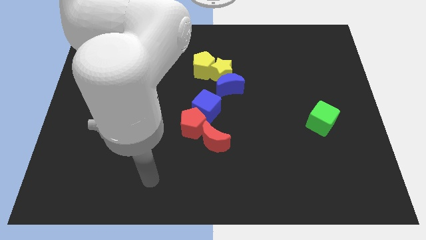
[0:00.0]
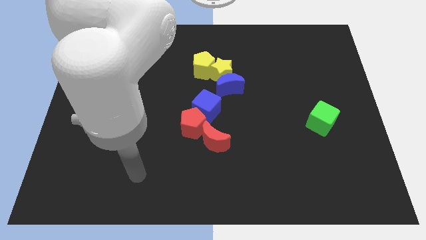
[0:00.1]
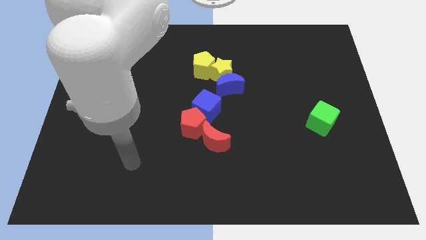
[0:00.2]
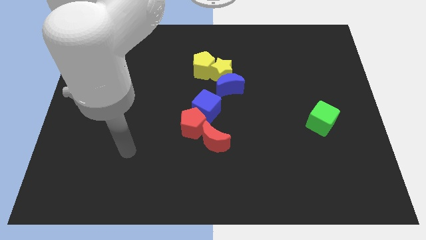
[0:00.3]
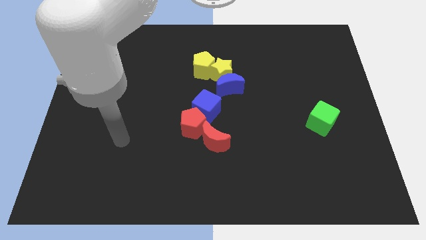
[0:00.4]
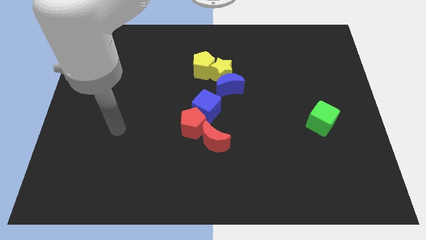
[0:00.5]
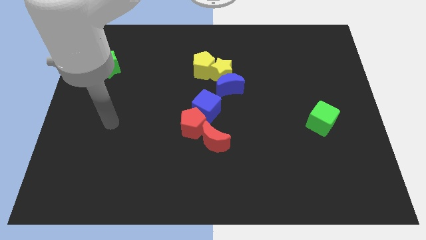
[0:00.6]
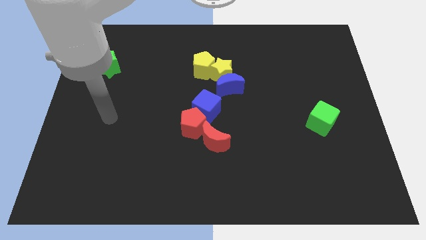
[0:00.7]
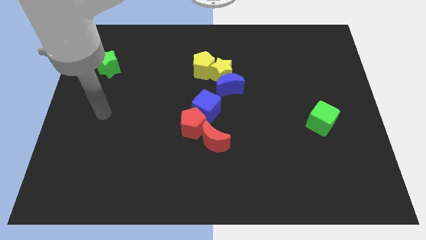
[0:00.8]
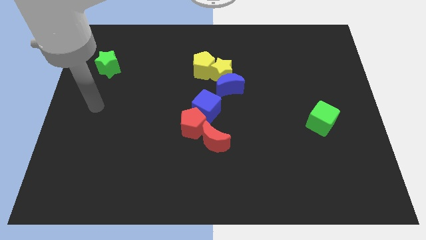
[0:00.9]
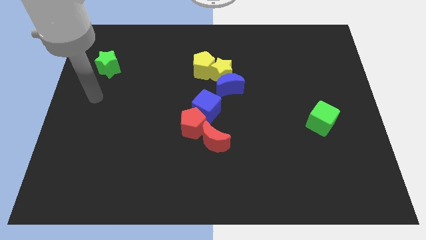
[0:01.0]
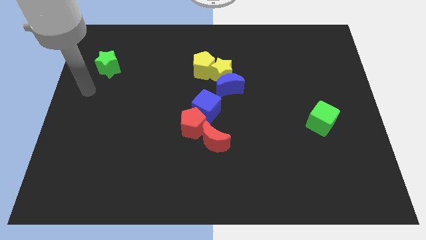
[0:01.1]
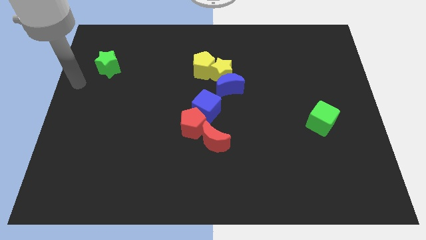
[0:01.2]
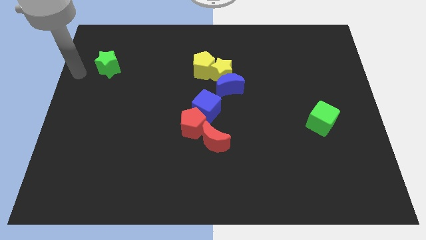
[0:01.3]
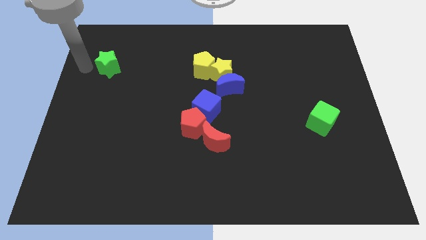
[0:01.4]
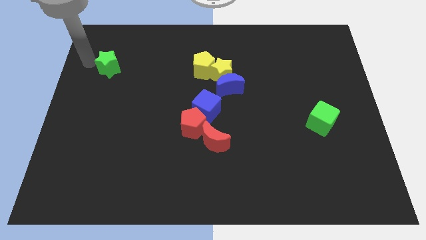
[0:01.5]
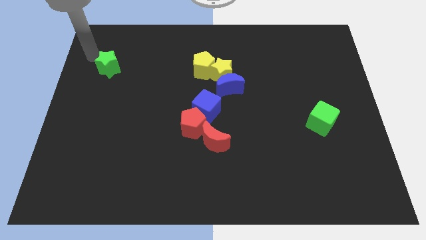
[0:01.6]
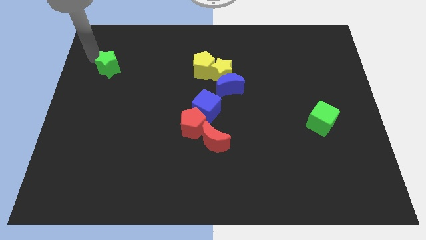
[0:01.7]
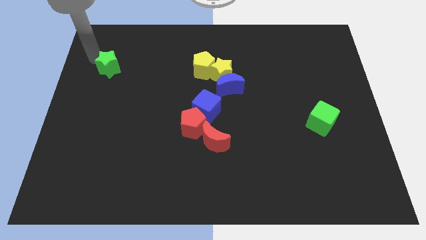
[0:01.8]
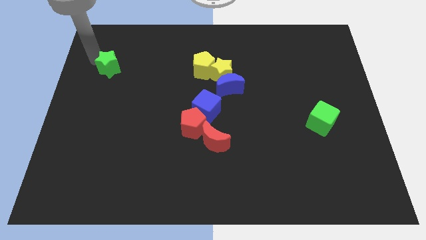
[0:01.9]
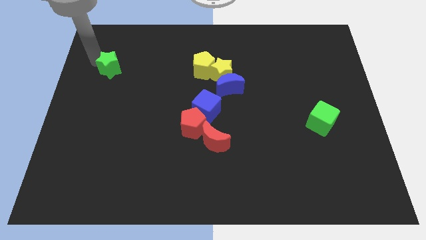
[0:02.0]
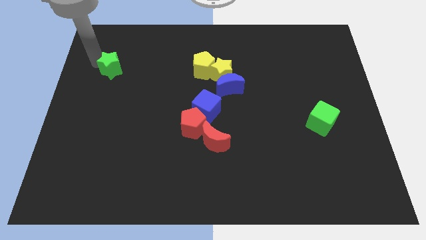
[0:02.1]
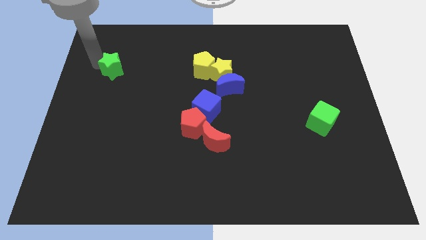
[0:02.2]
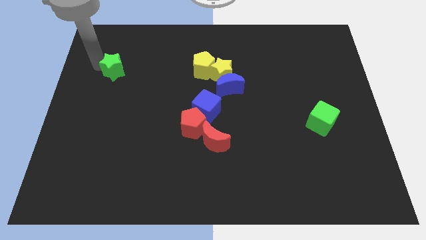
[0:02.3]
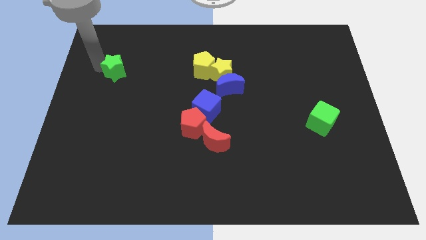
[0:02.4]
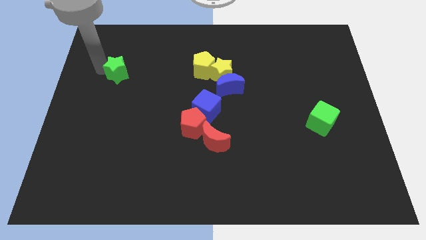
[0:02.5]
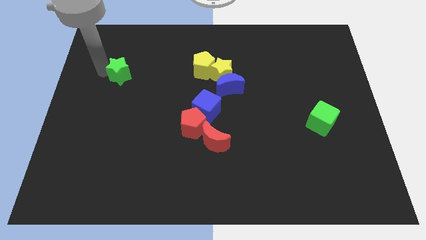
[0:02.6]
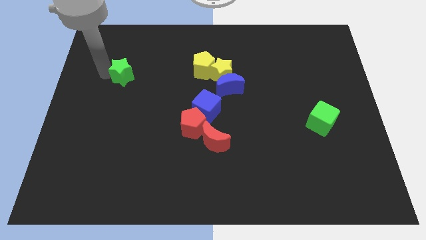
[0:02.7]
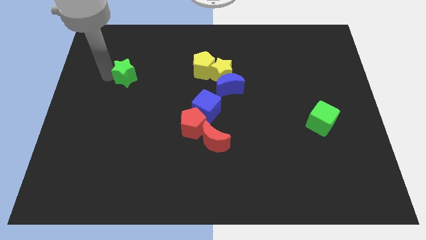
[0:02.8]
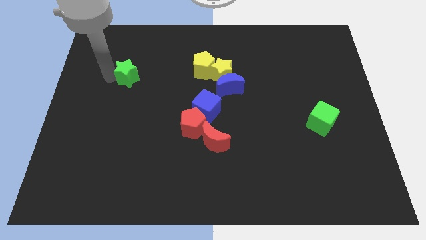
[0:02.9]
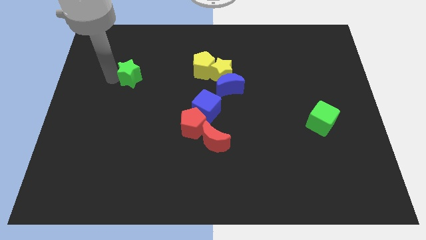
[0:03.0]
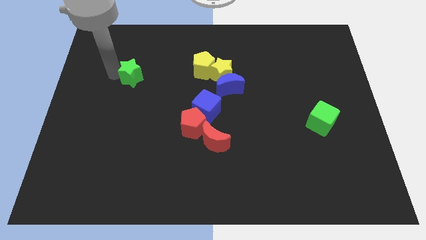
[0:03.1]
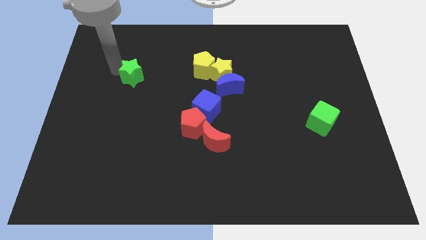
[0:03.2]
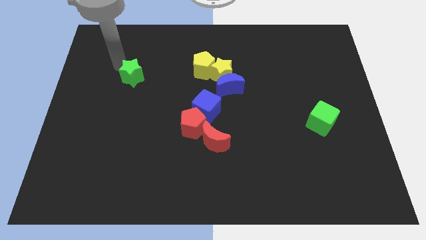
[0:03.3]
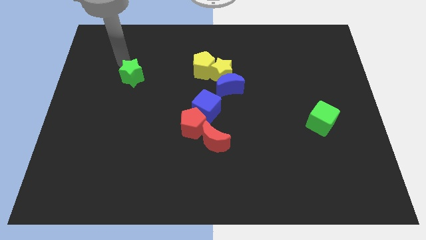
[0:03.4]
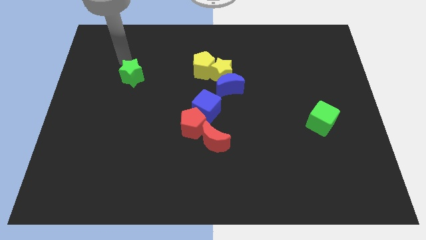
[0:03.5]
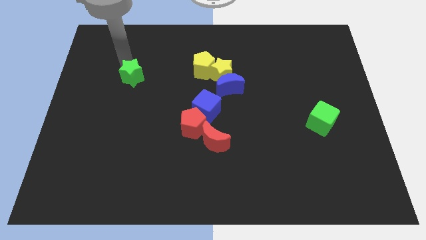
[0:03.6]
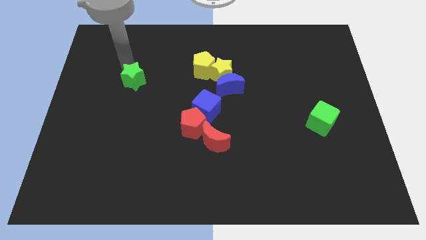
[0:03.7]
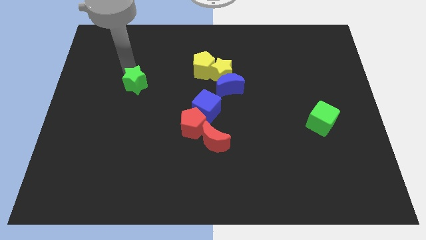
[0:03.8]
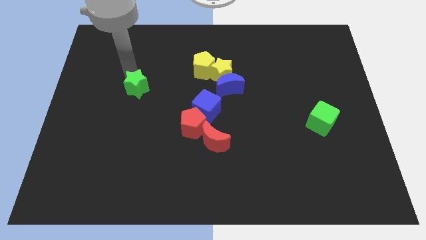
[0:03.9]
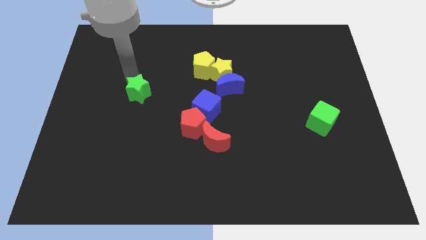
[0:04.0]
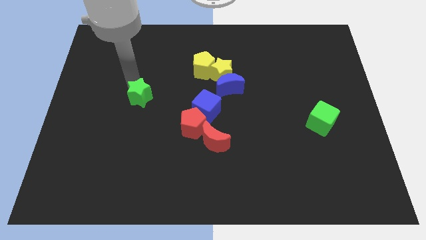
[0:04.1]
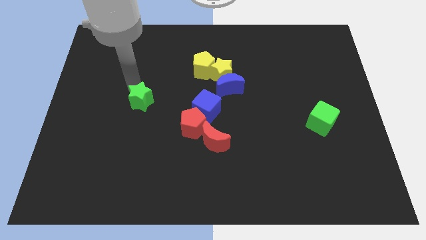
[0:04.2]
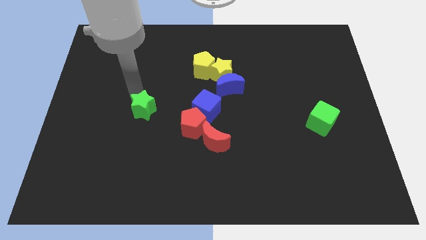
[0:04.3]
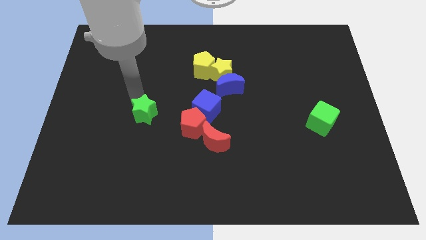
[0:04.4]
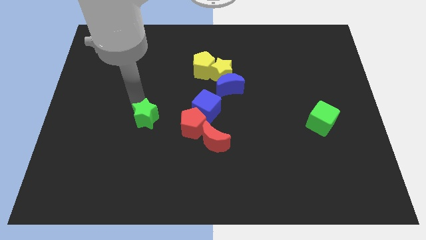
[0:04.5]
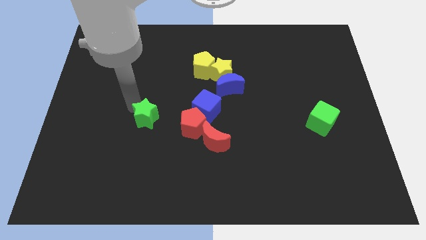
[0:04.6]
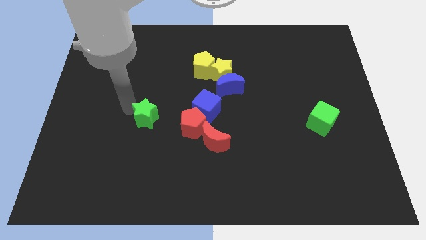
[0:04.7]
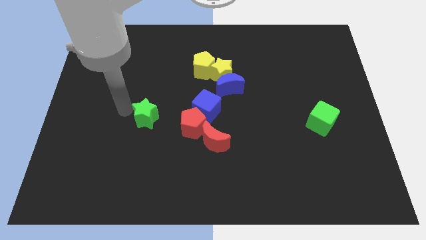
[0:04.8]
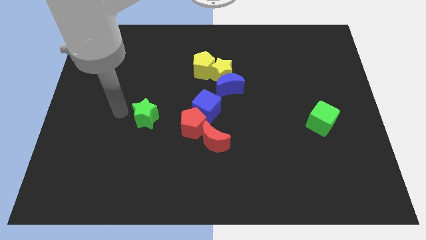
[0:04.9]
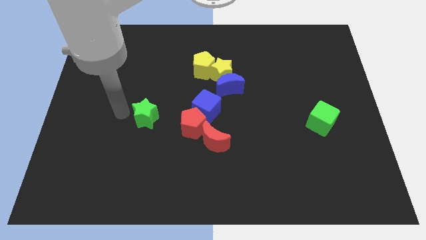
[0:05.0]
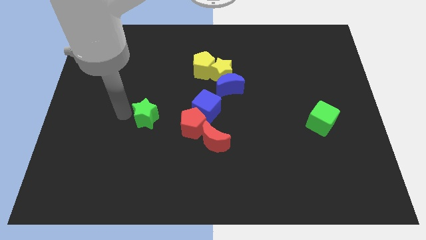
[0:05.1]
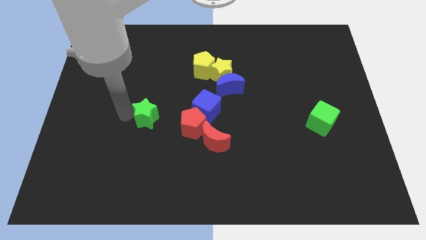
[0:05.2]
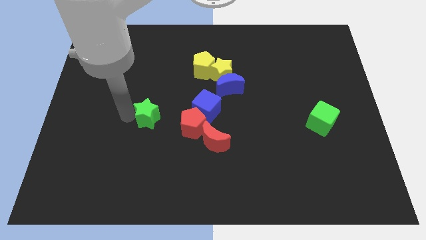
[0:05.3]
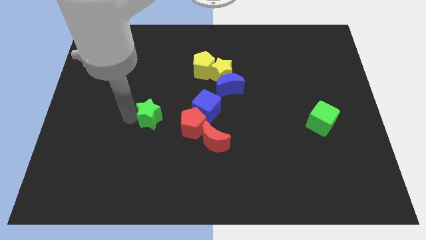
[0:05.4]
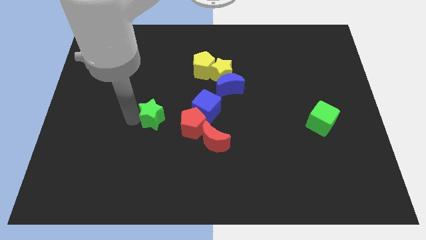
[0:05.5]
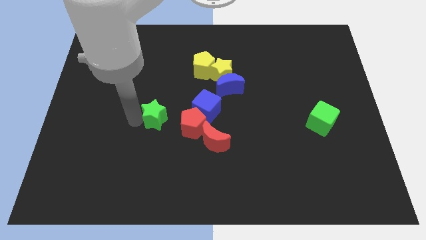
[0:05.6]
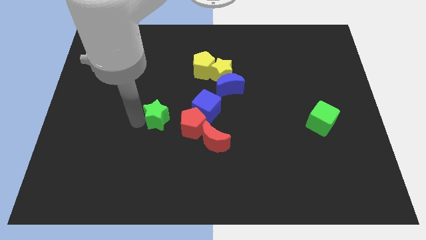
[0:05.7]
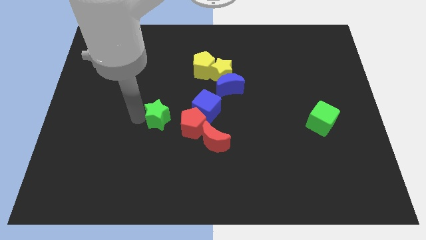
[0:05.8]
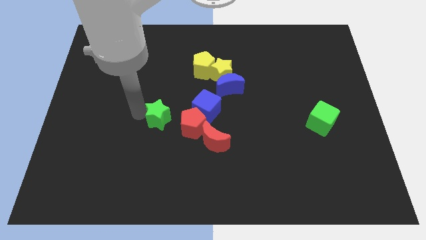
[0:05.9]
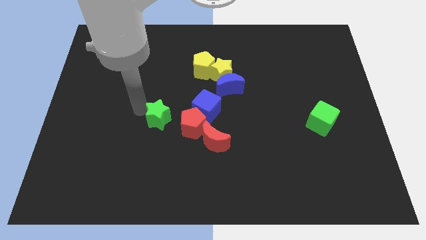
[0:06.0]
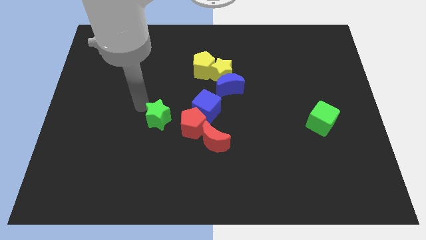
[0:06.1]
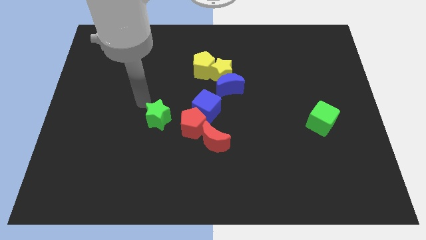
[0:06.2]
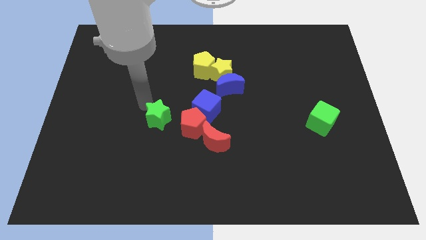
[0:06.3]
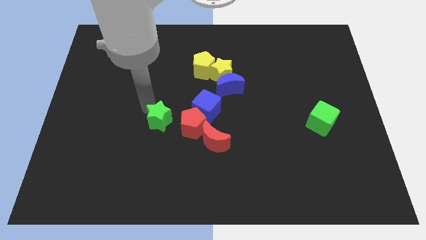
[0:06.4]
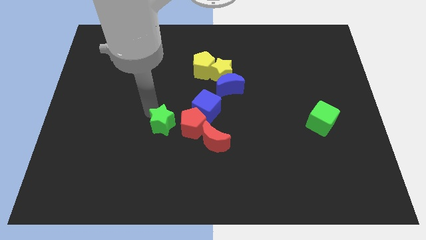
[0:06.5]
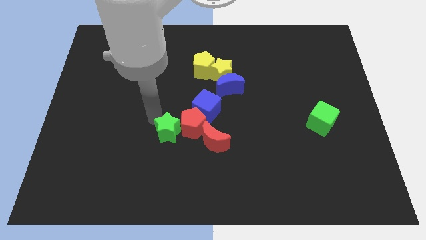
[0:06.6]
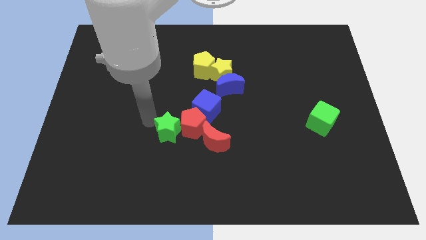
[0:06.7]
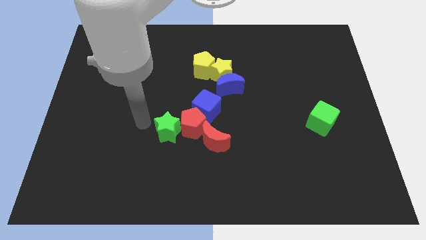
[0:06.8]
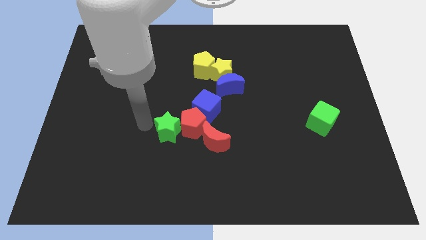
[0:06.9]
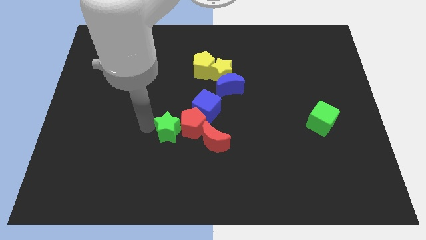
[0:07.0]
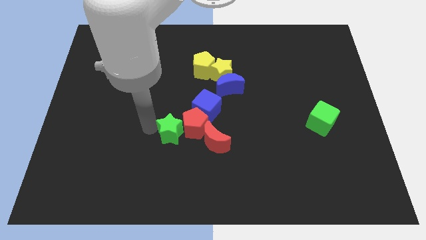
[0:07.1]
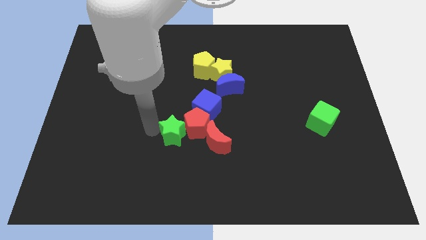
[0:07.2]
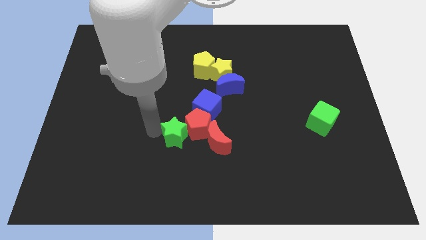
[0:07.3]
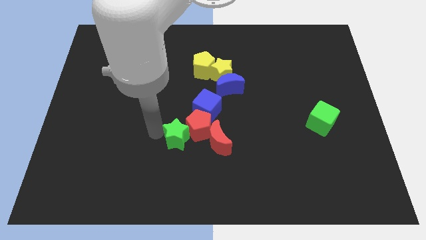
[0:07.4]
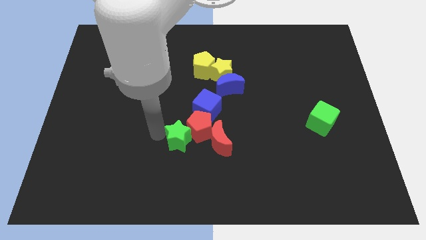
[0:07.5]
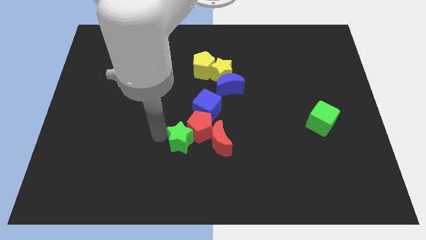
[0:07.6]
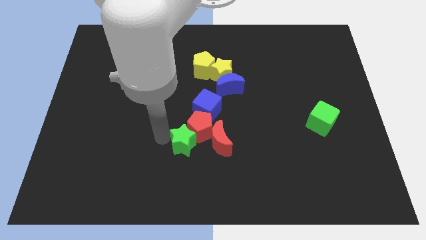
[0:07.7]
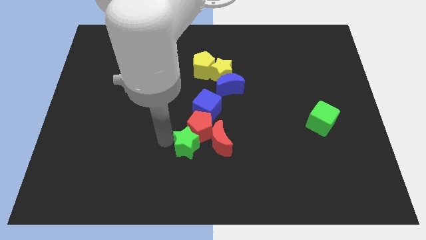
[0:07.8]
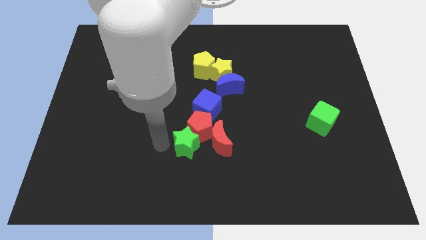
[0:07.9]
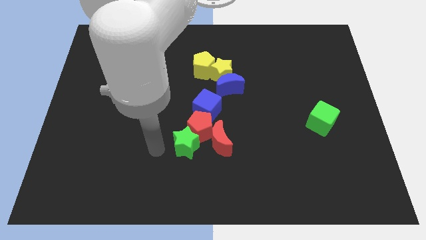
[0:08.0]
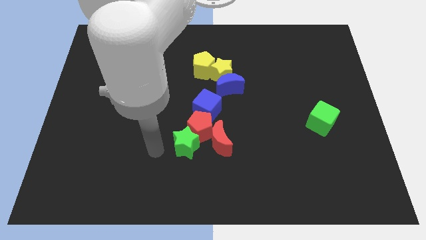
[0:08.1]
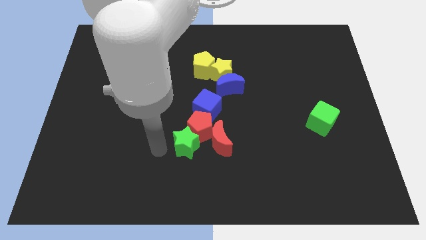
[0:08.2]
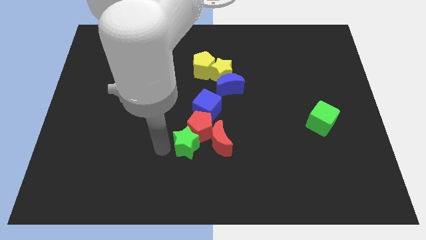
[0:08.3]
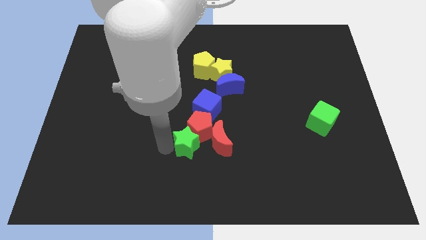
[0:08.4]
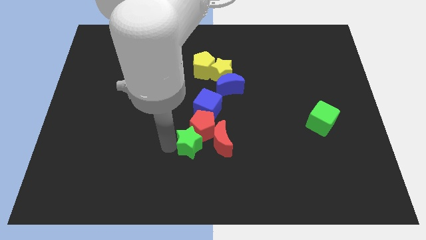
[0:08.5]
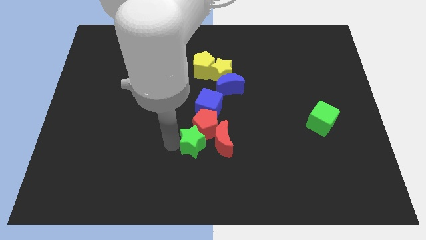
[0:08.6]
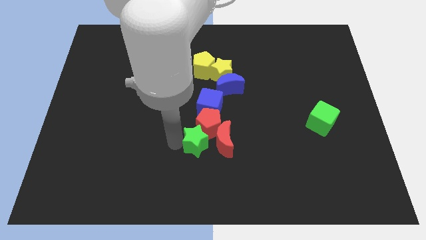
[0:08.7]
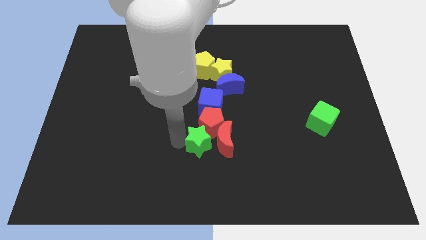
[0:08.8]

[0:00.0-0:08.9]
put the green star towards the red moon
